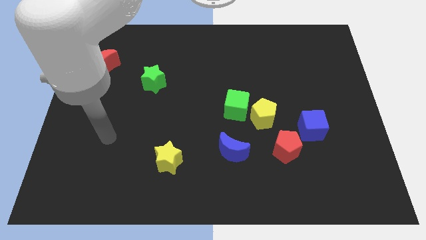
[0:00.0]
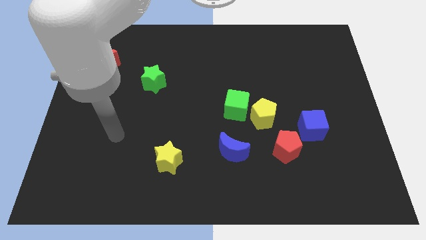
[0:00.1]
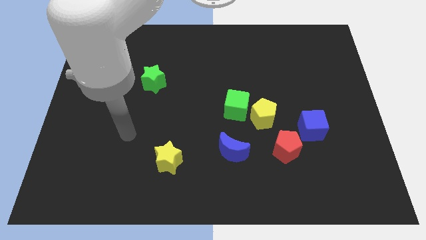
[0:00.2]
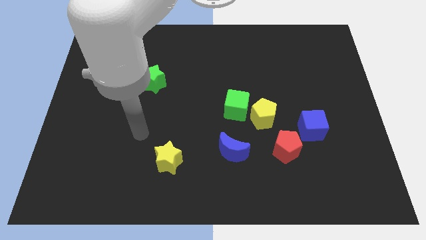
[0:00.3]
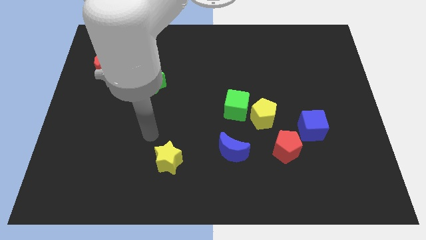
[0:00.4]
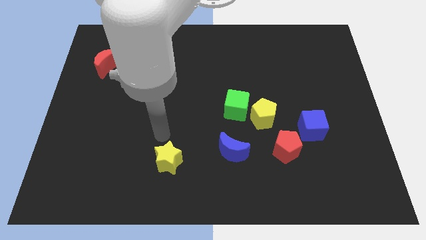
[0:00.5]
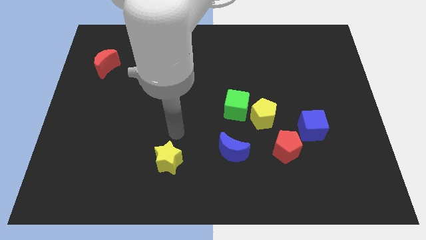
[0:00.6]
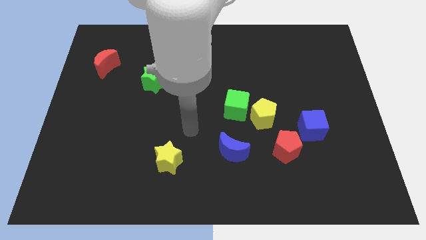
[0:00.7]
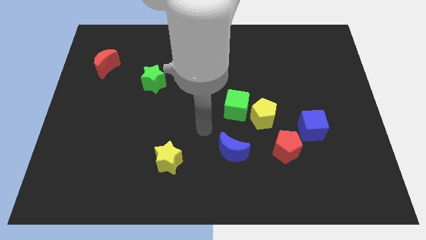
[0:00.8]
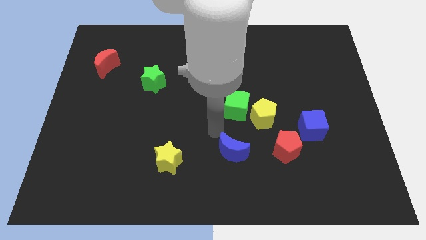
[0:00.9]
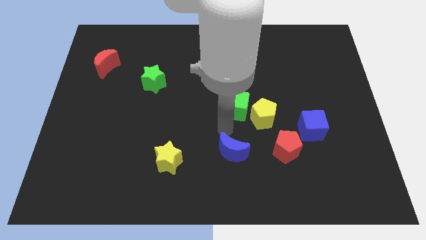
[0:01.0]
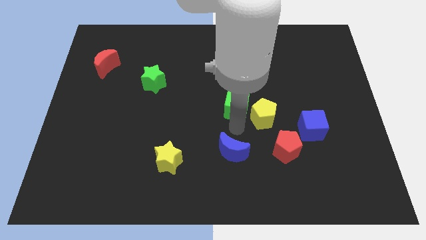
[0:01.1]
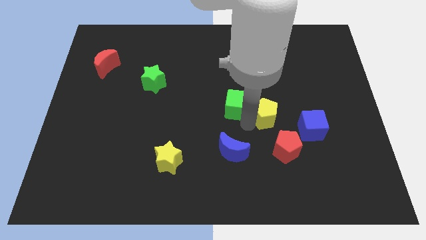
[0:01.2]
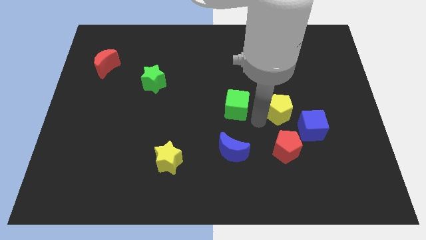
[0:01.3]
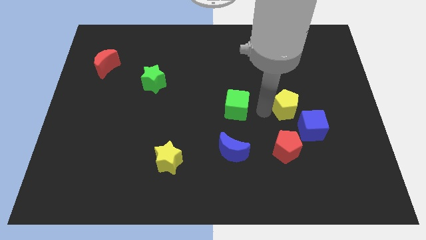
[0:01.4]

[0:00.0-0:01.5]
pull the green cube apart from the yellow pentagon

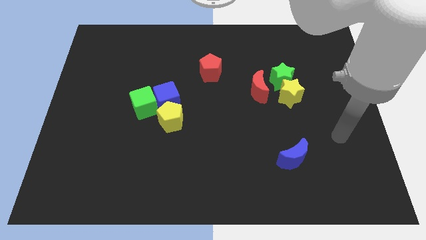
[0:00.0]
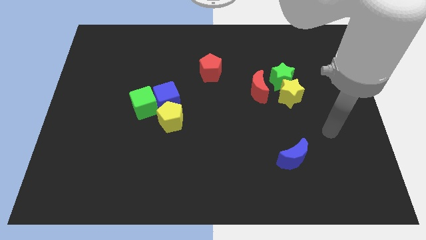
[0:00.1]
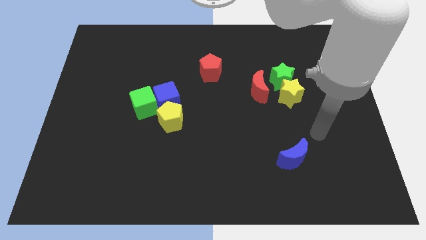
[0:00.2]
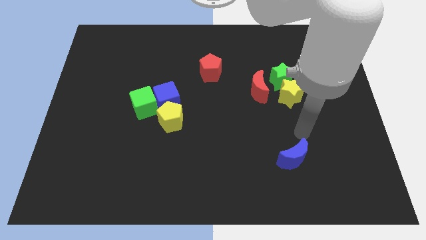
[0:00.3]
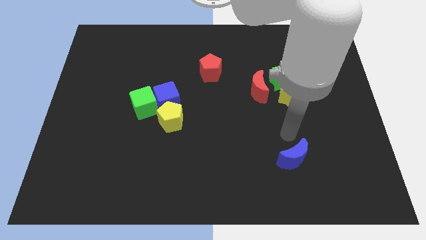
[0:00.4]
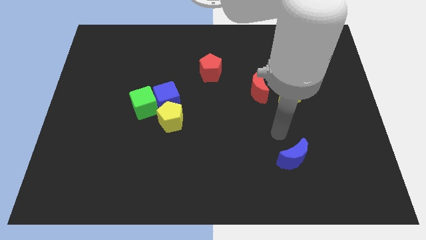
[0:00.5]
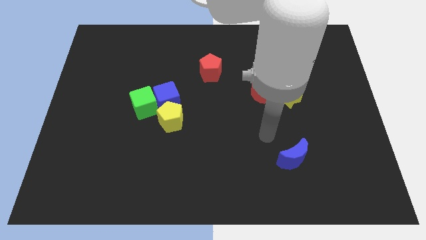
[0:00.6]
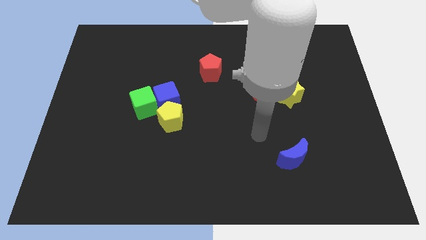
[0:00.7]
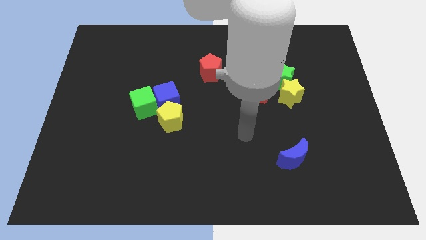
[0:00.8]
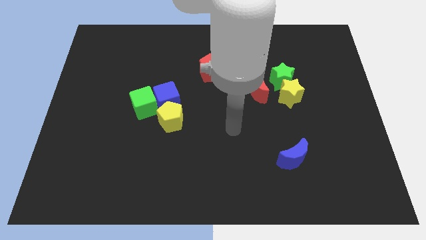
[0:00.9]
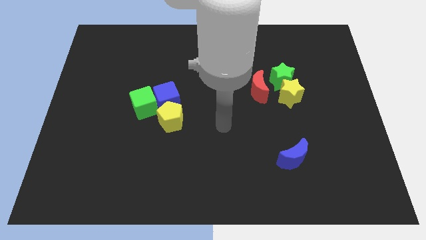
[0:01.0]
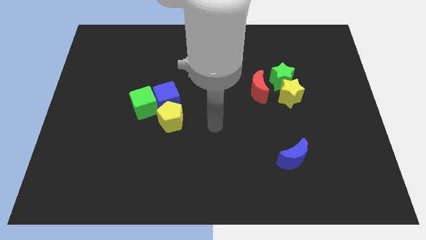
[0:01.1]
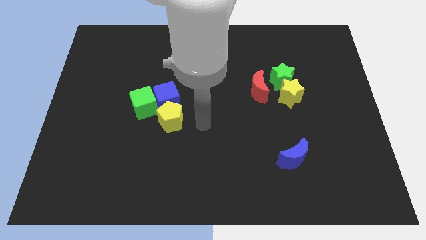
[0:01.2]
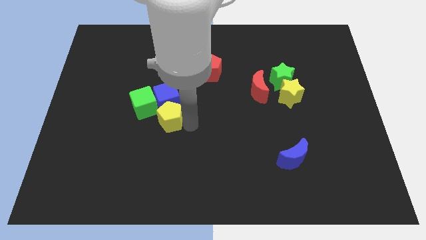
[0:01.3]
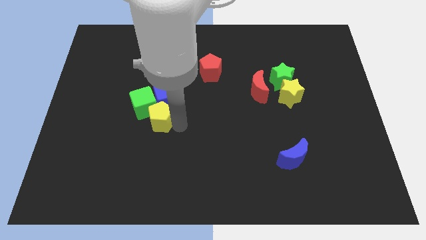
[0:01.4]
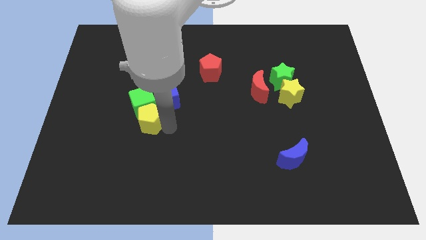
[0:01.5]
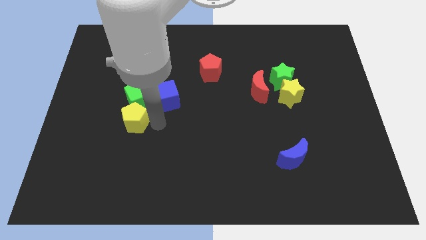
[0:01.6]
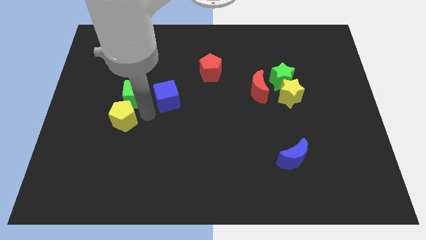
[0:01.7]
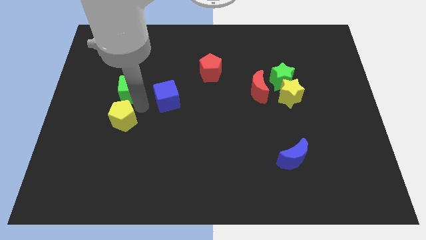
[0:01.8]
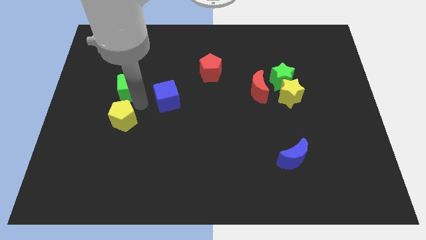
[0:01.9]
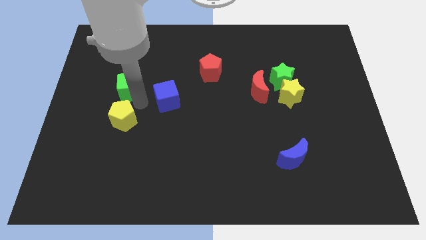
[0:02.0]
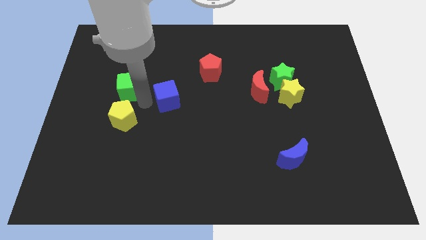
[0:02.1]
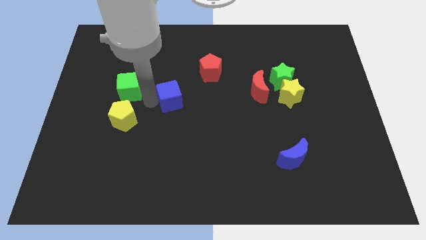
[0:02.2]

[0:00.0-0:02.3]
separate the blue cube from the green cube and yellow pentagon

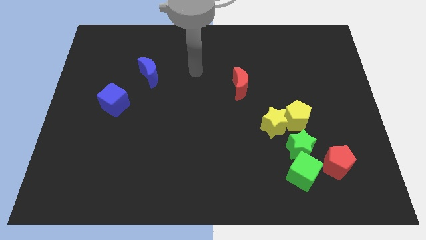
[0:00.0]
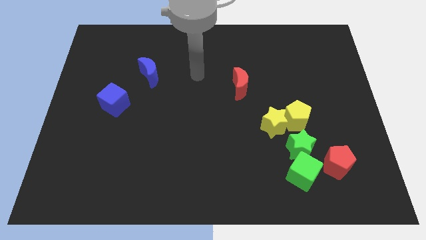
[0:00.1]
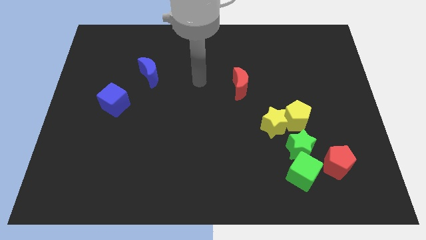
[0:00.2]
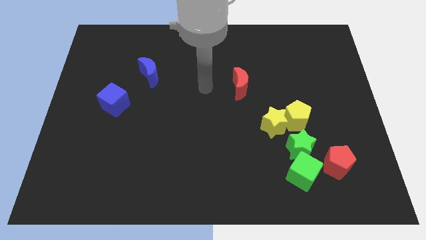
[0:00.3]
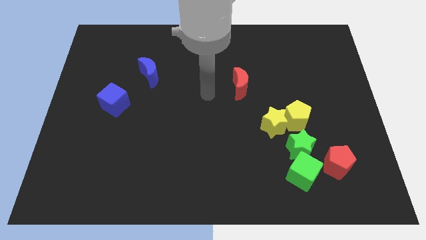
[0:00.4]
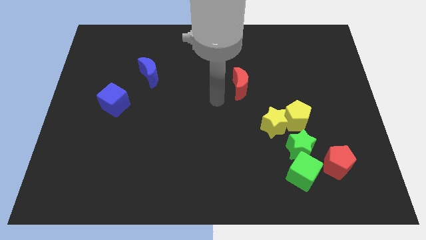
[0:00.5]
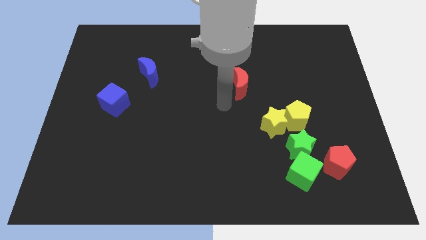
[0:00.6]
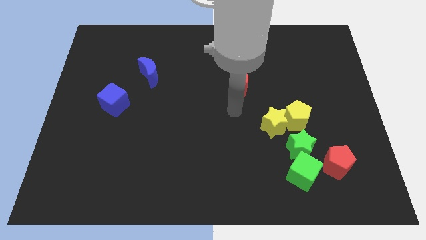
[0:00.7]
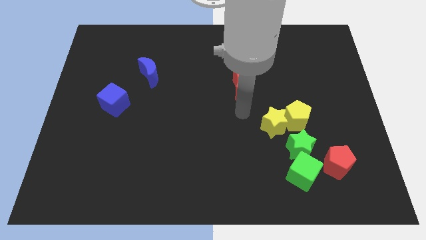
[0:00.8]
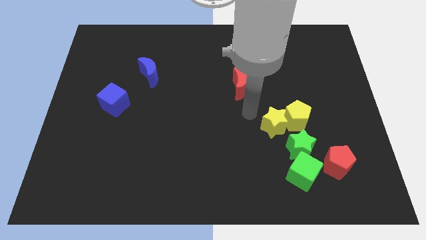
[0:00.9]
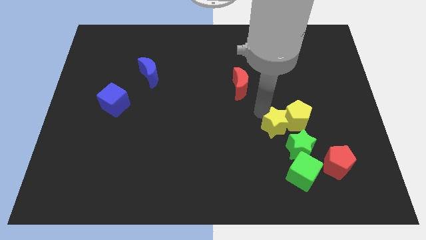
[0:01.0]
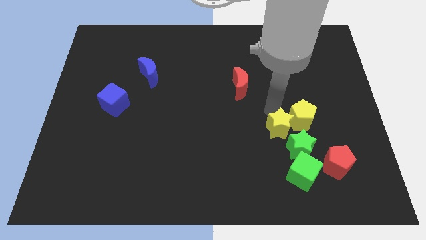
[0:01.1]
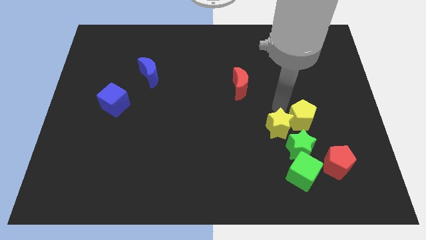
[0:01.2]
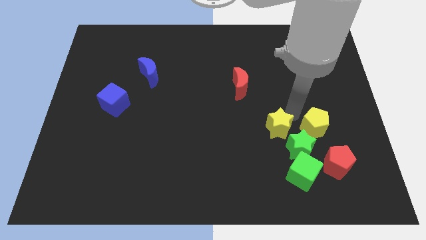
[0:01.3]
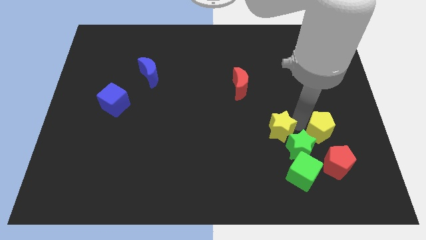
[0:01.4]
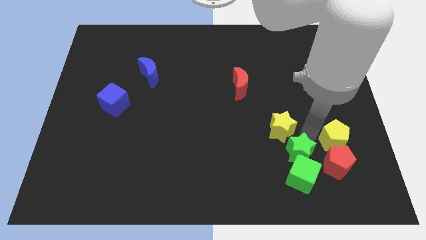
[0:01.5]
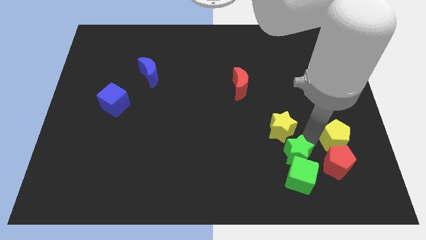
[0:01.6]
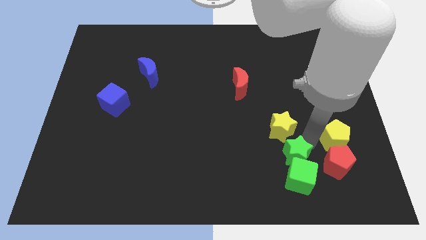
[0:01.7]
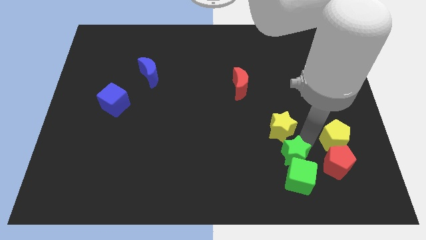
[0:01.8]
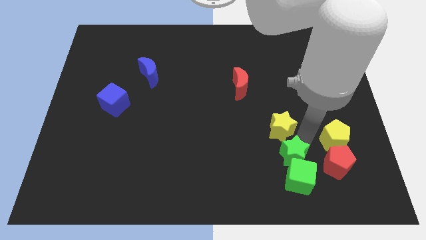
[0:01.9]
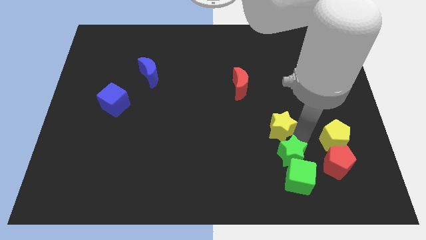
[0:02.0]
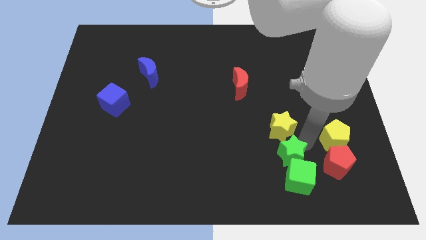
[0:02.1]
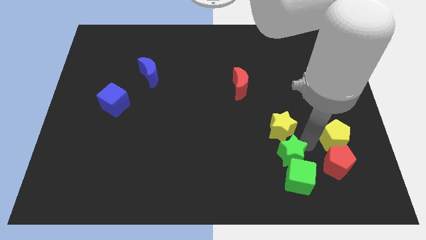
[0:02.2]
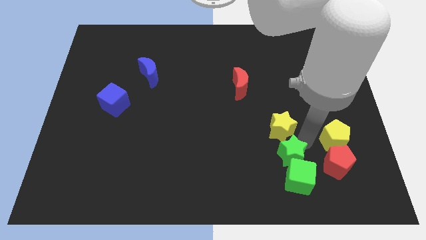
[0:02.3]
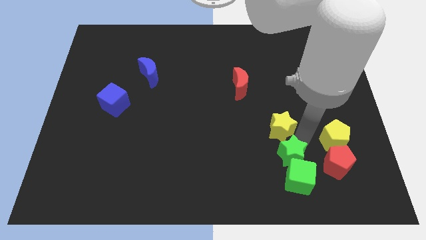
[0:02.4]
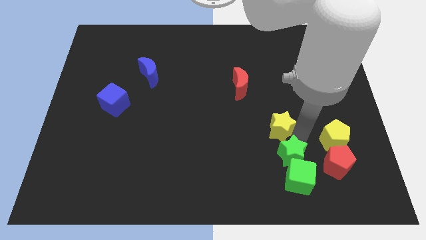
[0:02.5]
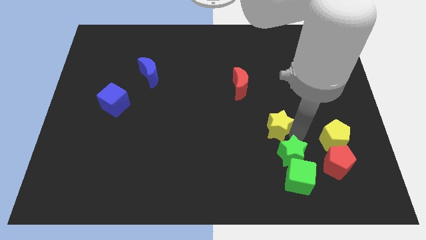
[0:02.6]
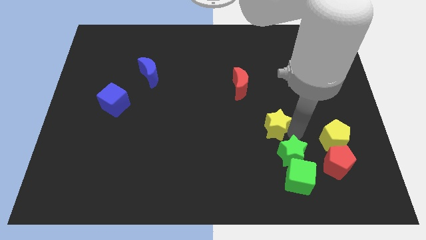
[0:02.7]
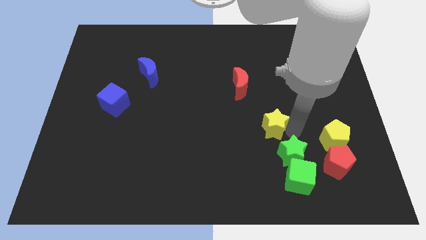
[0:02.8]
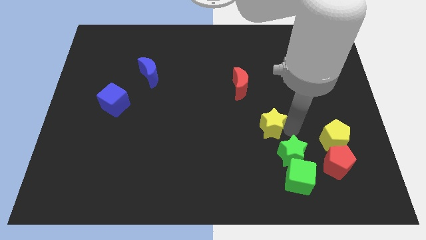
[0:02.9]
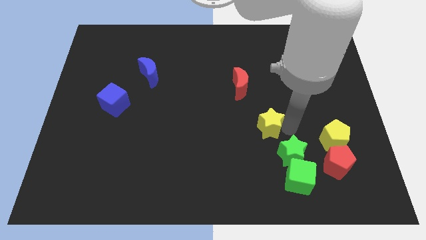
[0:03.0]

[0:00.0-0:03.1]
separate the yellow star from the yellow pentagon and green star

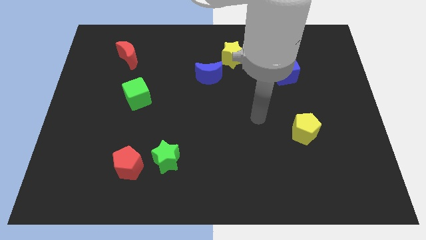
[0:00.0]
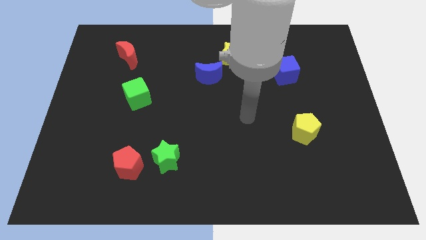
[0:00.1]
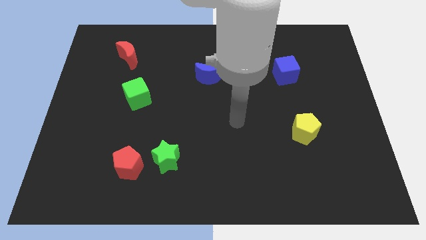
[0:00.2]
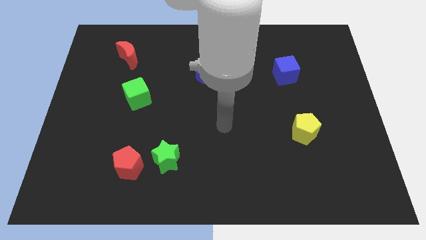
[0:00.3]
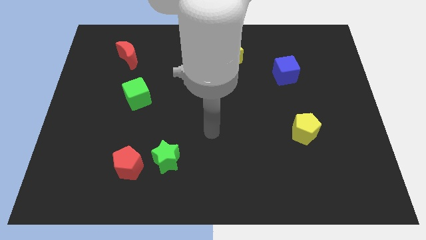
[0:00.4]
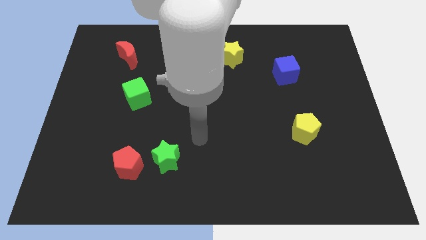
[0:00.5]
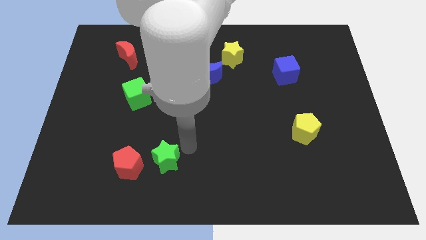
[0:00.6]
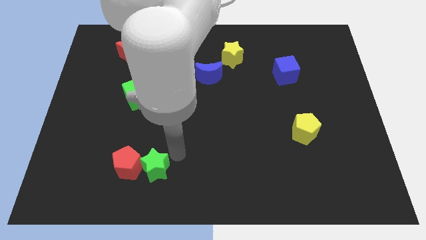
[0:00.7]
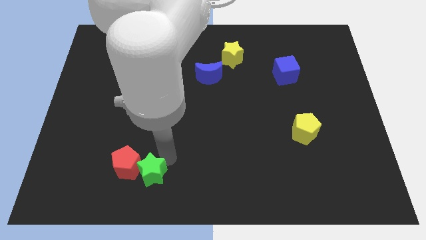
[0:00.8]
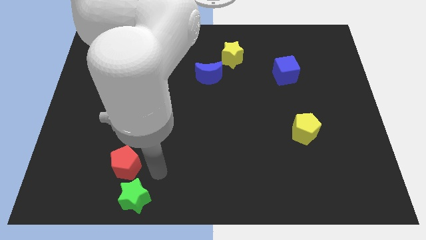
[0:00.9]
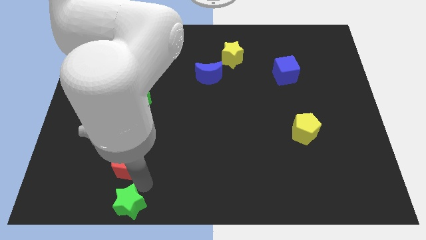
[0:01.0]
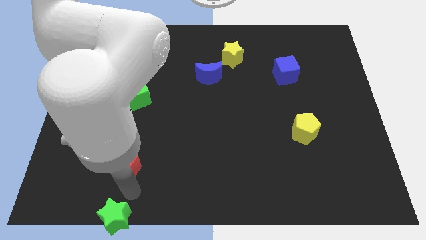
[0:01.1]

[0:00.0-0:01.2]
pull the red pentagon apart from the green star

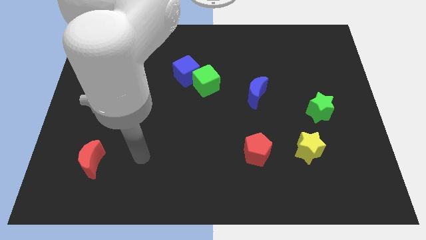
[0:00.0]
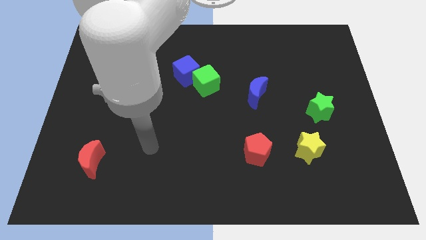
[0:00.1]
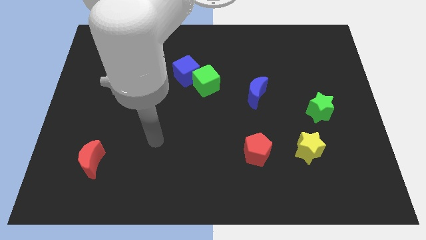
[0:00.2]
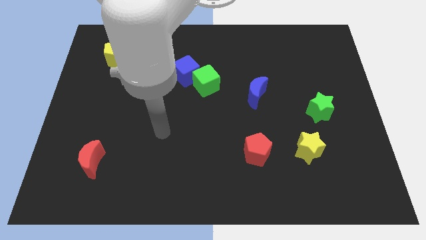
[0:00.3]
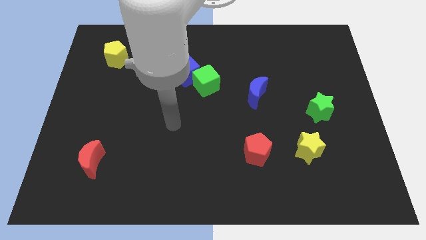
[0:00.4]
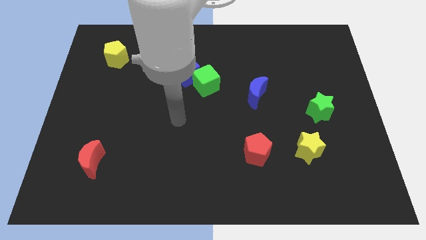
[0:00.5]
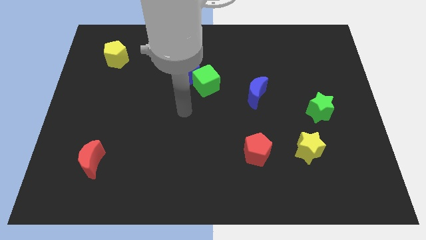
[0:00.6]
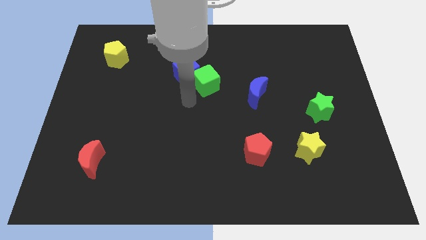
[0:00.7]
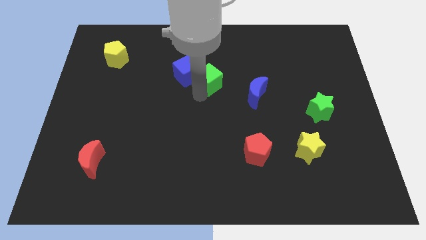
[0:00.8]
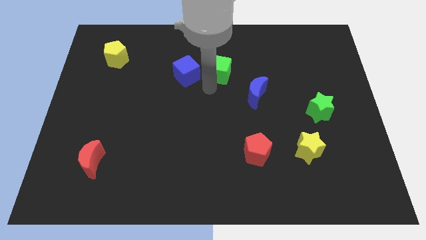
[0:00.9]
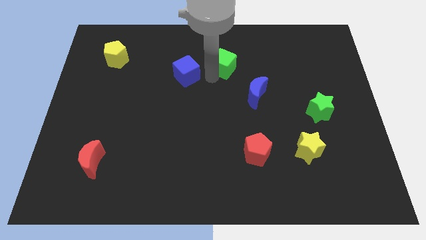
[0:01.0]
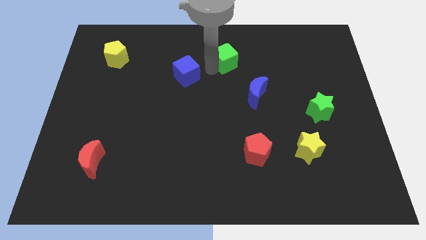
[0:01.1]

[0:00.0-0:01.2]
separate the blue cube from the green cube
